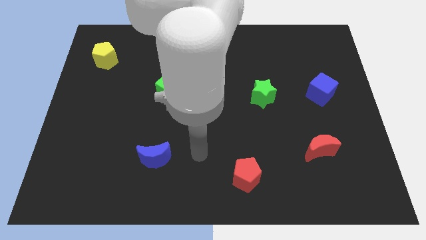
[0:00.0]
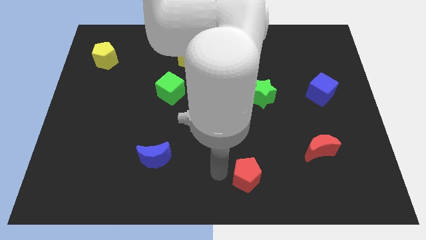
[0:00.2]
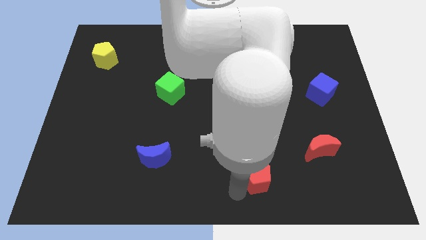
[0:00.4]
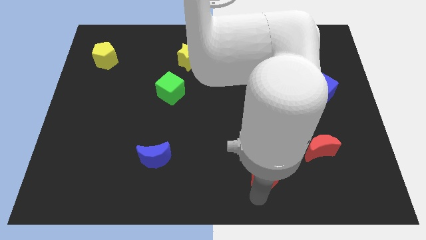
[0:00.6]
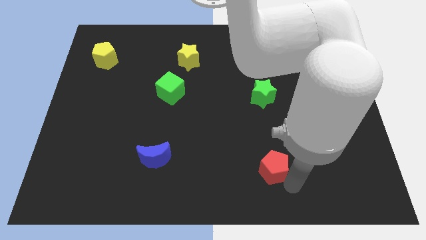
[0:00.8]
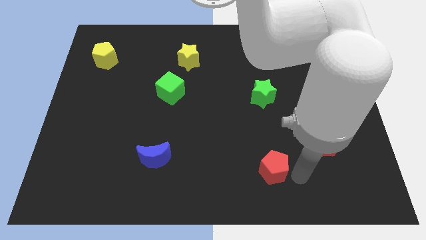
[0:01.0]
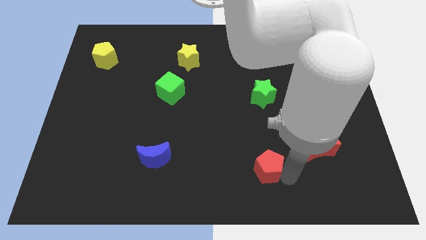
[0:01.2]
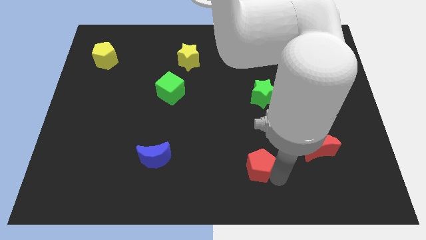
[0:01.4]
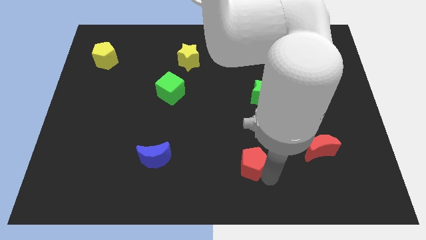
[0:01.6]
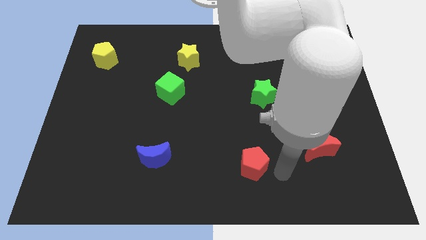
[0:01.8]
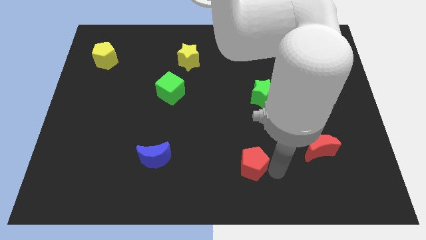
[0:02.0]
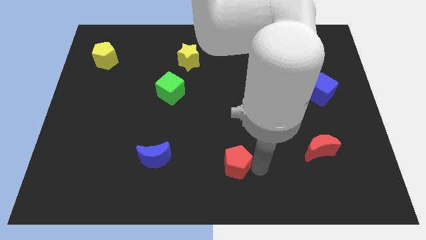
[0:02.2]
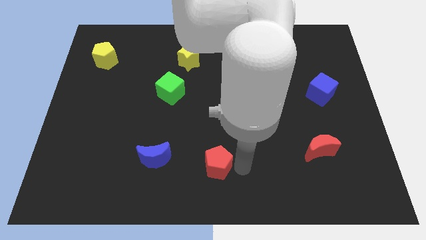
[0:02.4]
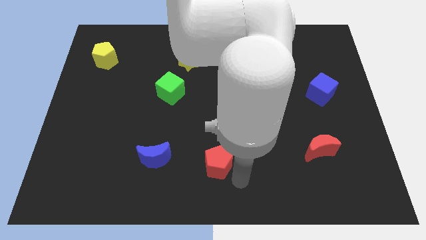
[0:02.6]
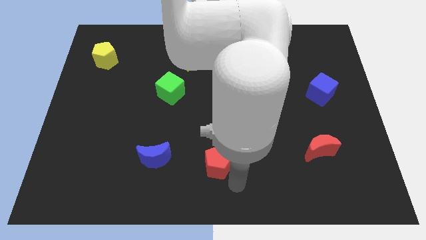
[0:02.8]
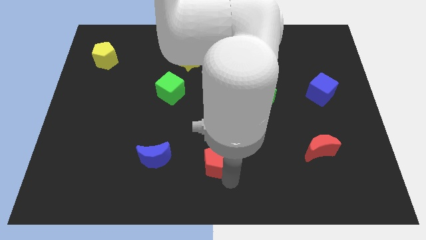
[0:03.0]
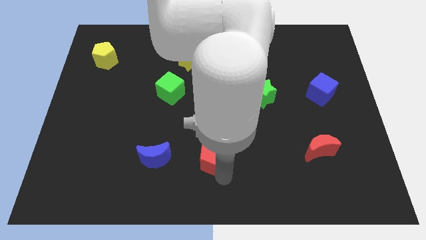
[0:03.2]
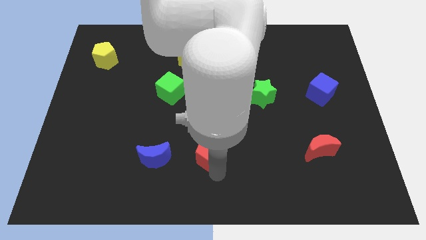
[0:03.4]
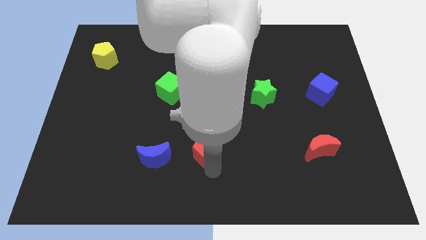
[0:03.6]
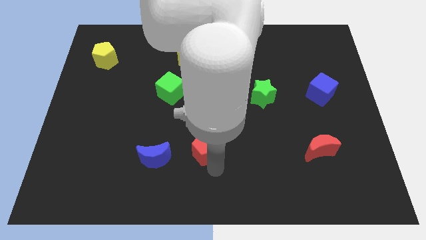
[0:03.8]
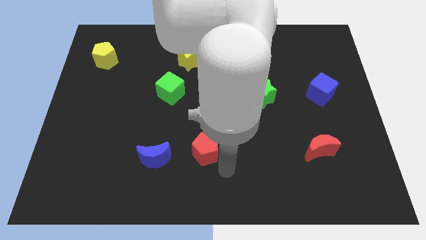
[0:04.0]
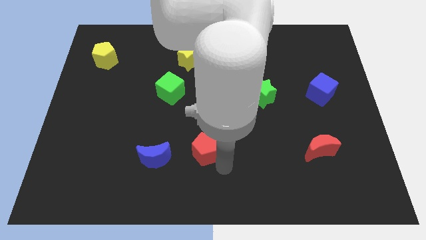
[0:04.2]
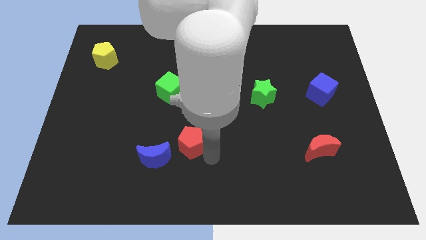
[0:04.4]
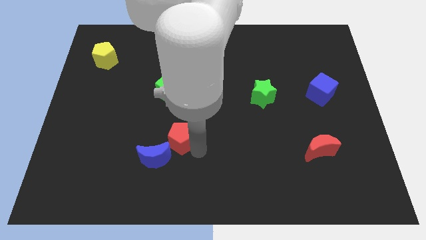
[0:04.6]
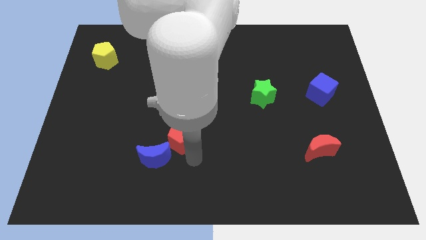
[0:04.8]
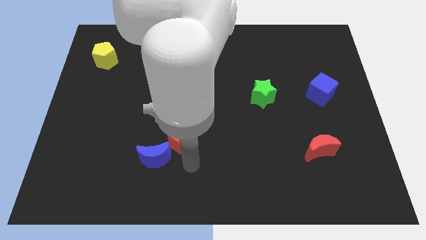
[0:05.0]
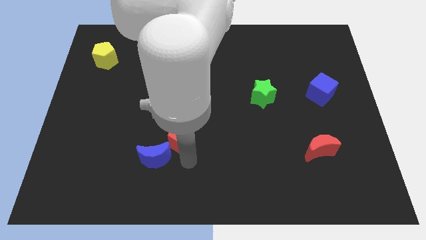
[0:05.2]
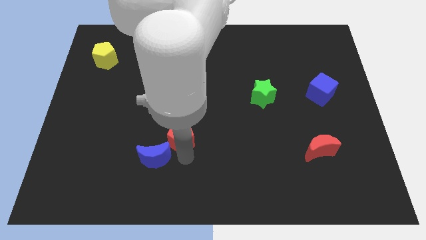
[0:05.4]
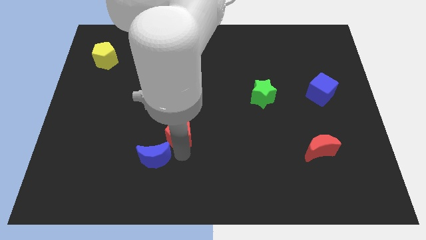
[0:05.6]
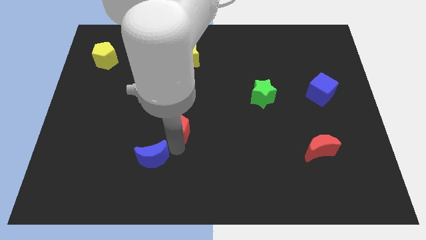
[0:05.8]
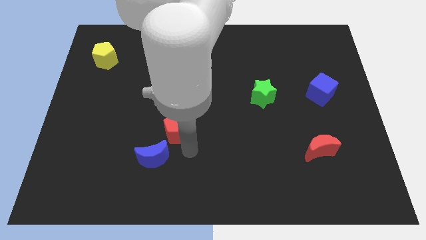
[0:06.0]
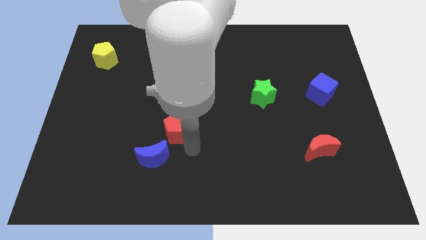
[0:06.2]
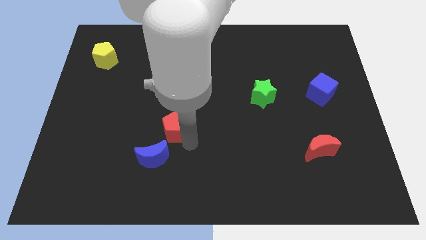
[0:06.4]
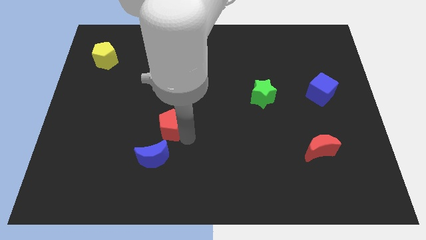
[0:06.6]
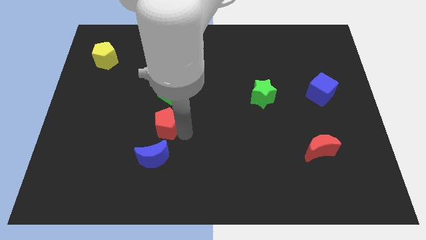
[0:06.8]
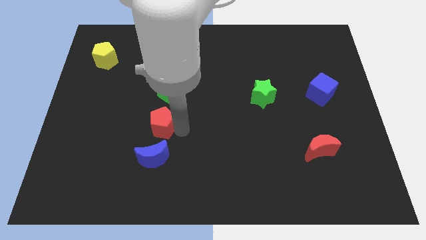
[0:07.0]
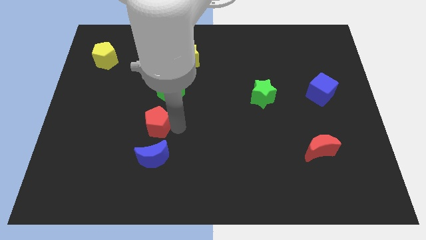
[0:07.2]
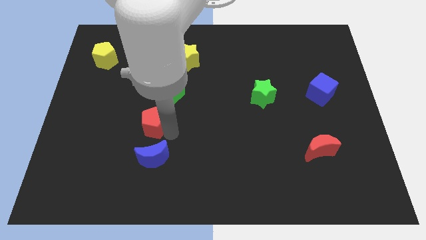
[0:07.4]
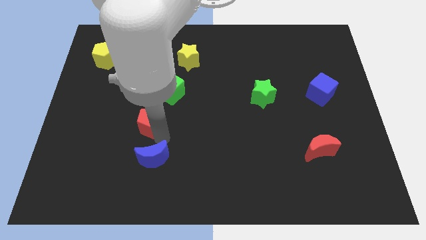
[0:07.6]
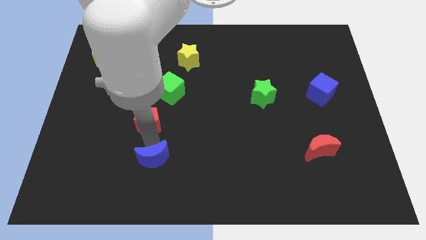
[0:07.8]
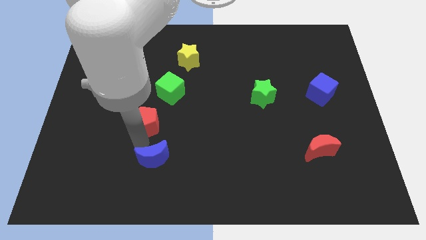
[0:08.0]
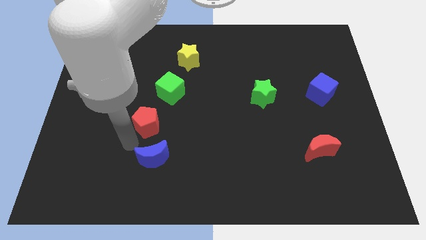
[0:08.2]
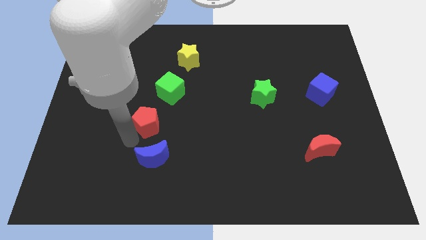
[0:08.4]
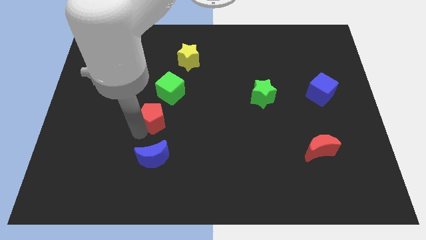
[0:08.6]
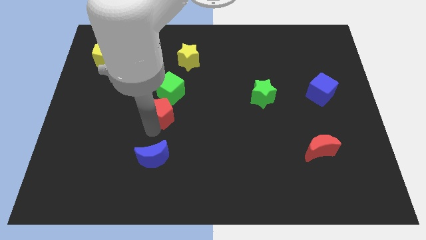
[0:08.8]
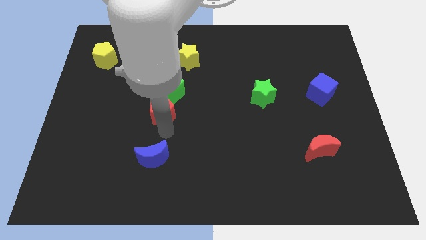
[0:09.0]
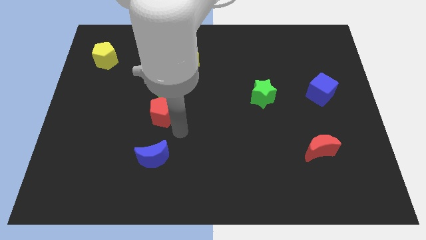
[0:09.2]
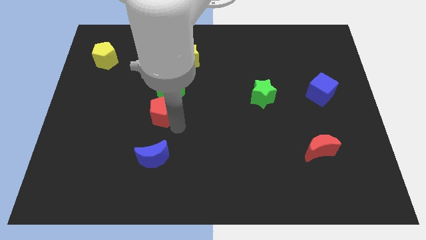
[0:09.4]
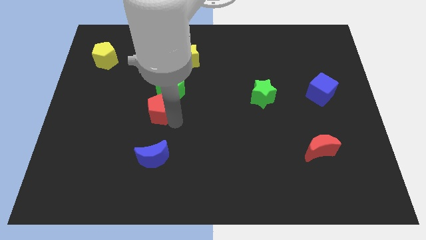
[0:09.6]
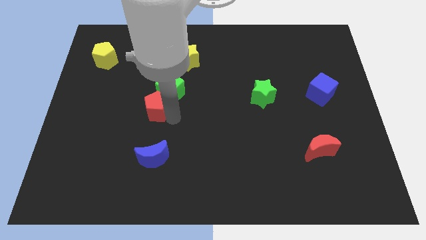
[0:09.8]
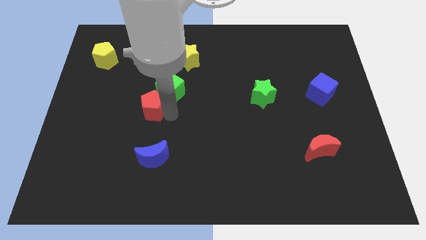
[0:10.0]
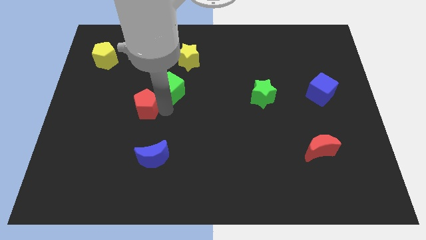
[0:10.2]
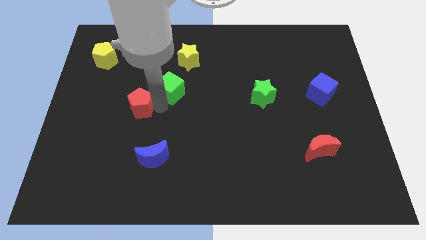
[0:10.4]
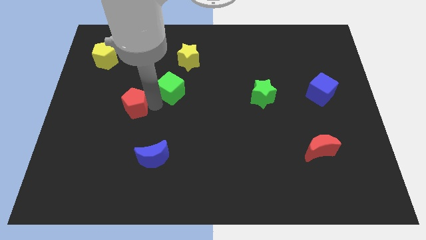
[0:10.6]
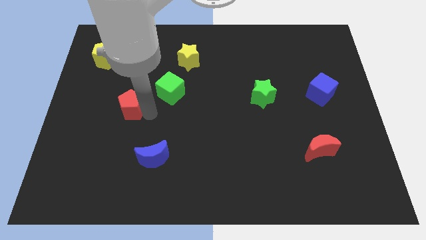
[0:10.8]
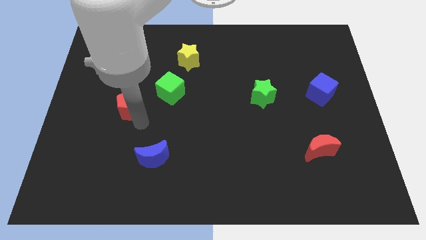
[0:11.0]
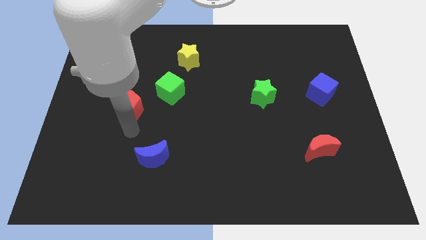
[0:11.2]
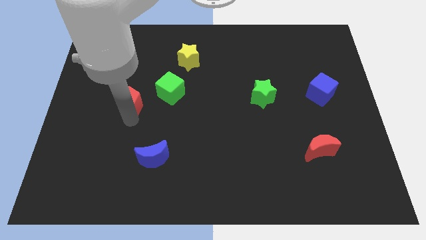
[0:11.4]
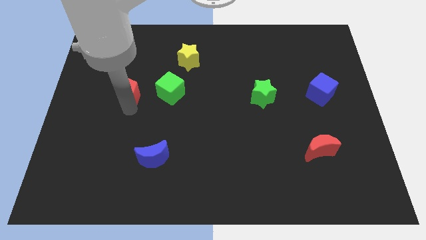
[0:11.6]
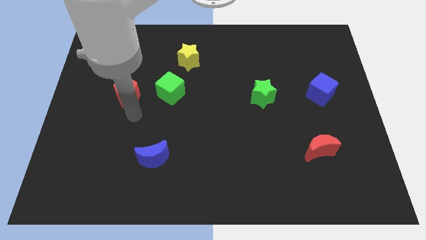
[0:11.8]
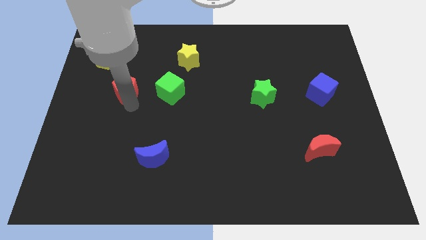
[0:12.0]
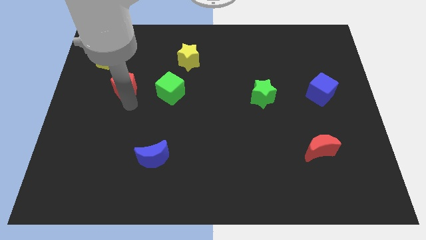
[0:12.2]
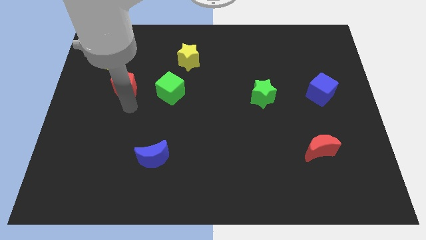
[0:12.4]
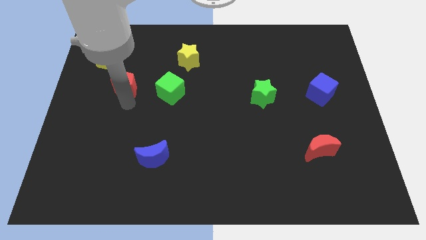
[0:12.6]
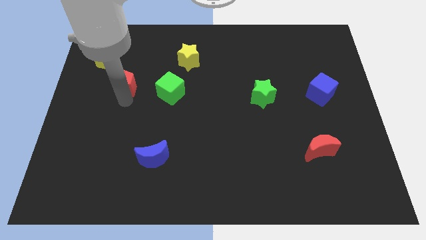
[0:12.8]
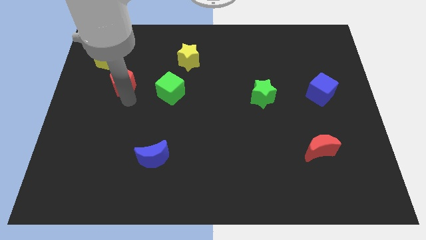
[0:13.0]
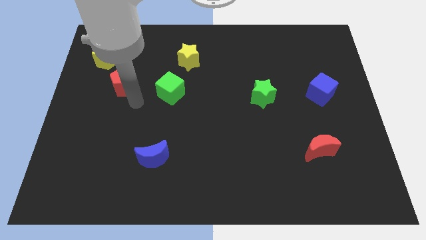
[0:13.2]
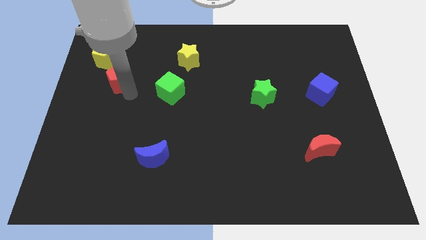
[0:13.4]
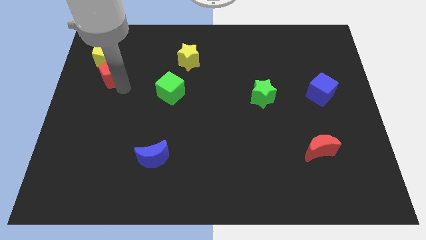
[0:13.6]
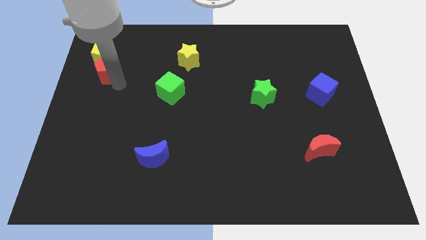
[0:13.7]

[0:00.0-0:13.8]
put the red pentagon close to the yellow pentagon

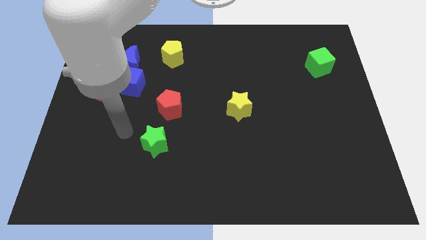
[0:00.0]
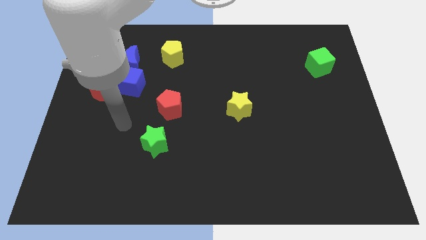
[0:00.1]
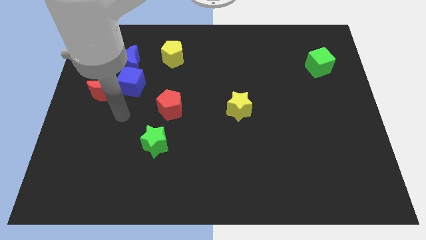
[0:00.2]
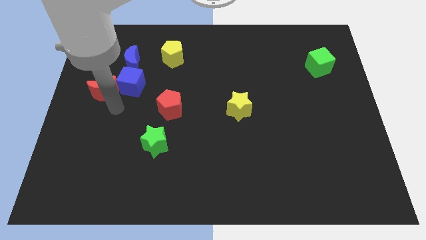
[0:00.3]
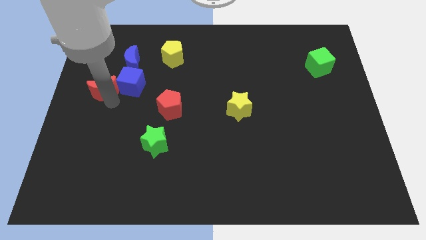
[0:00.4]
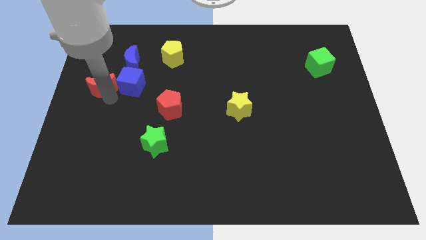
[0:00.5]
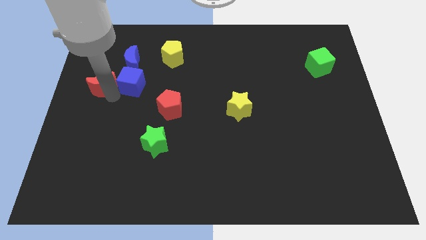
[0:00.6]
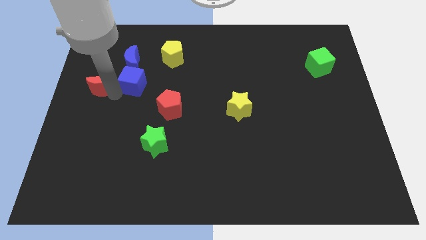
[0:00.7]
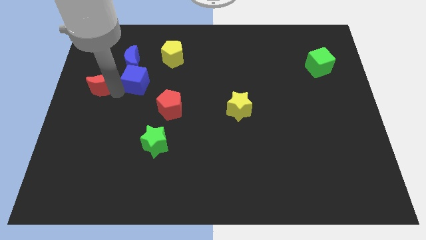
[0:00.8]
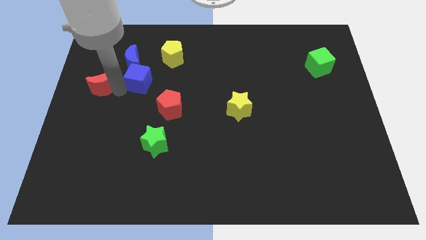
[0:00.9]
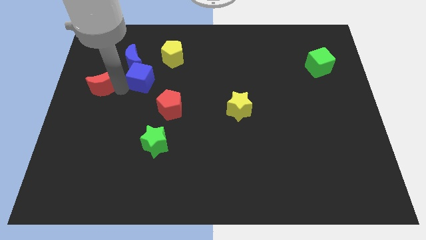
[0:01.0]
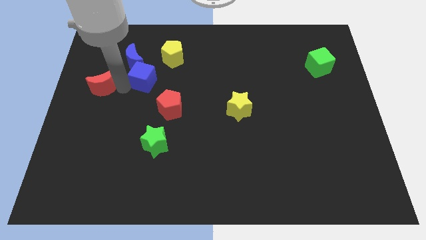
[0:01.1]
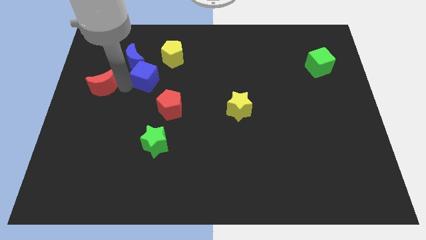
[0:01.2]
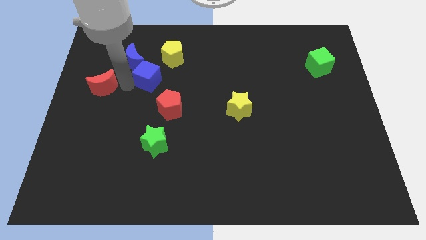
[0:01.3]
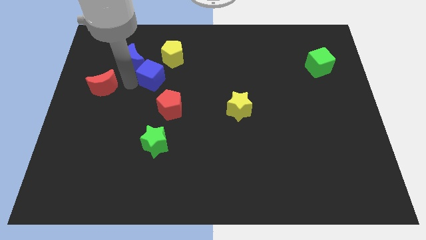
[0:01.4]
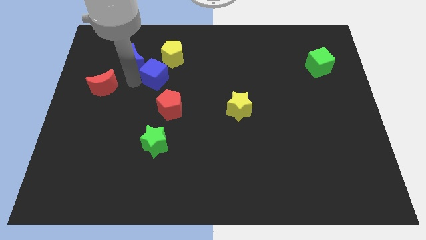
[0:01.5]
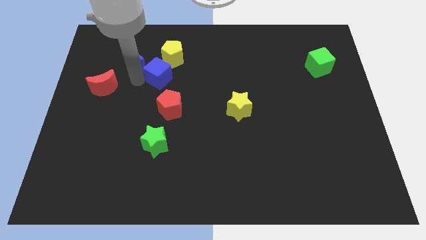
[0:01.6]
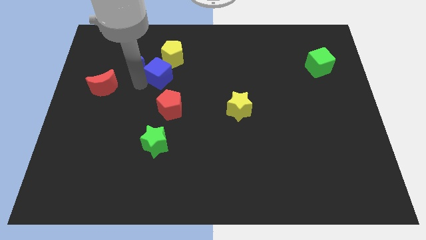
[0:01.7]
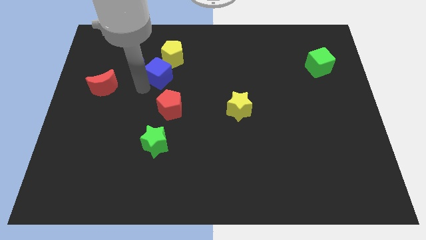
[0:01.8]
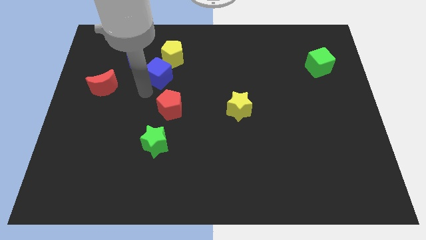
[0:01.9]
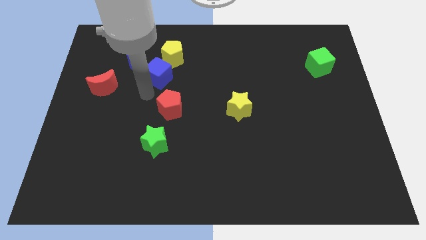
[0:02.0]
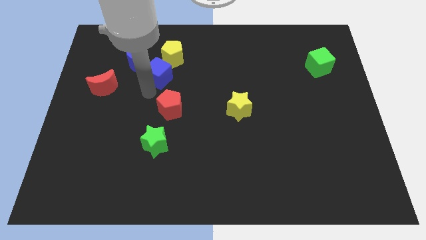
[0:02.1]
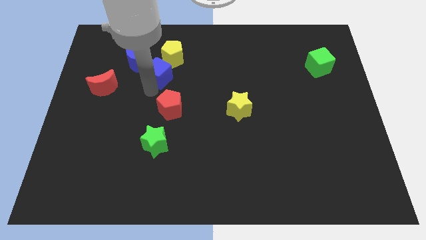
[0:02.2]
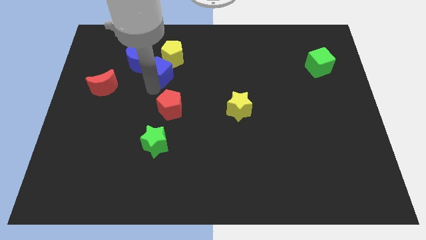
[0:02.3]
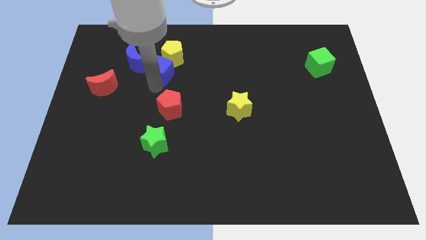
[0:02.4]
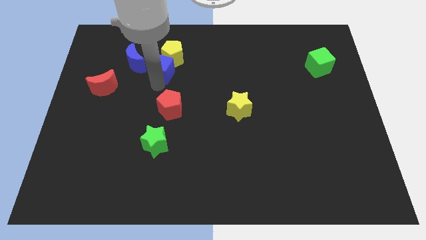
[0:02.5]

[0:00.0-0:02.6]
move the blue cube to the yellow pentagon
